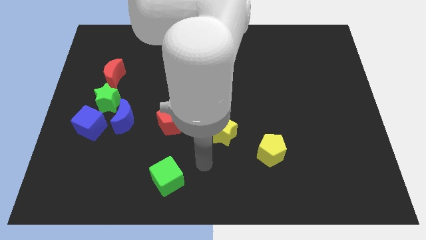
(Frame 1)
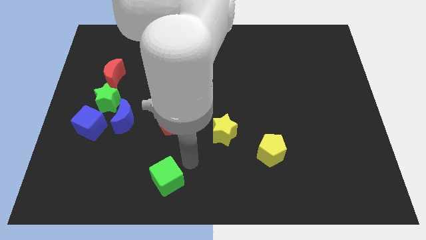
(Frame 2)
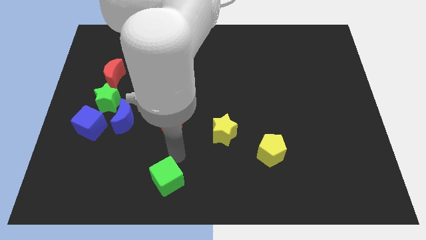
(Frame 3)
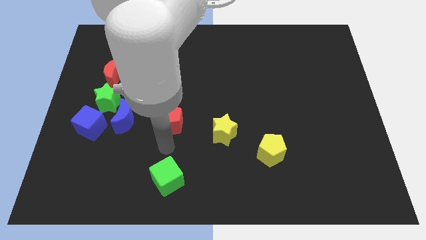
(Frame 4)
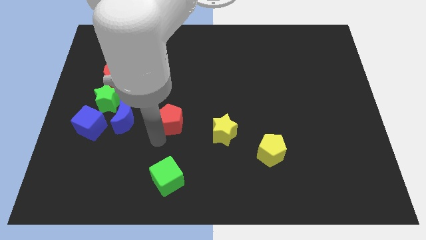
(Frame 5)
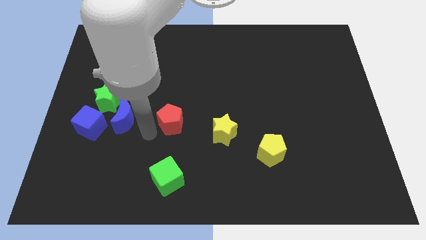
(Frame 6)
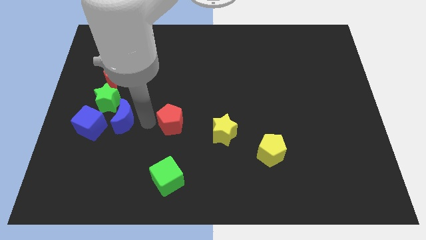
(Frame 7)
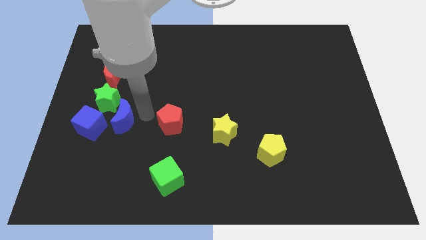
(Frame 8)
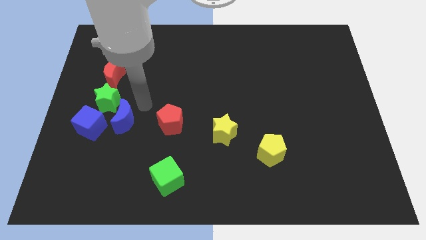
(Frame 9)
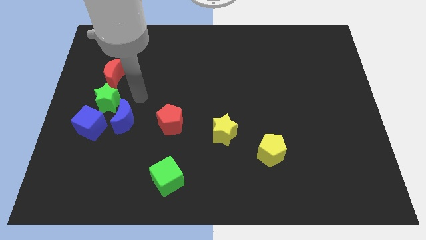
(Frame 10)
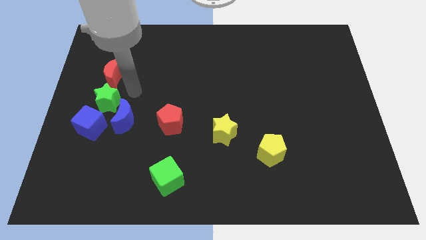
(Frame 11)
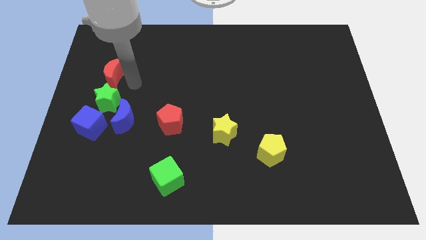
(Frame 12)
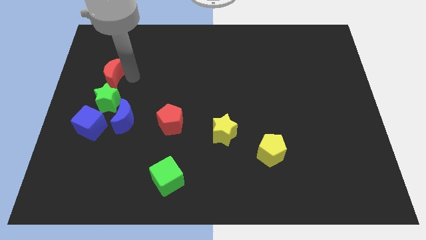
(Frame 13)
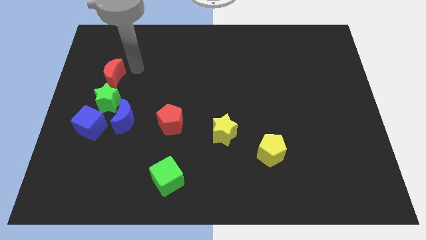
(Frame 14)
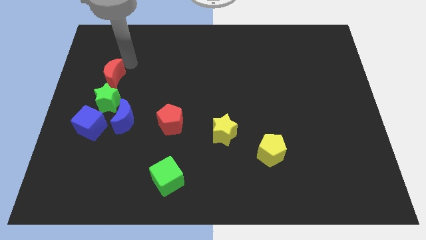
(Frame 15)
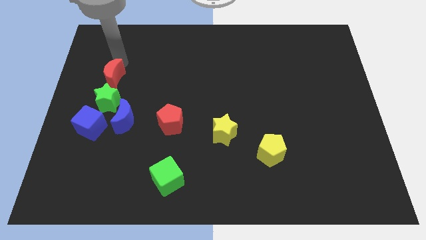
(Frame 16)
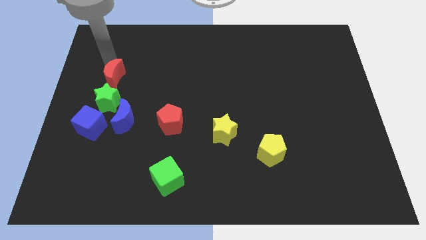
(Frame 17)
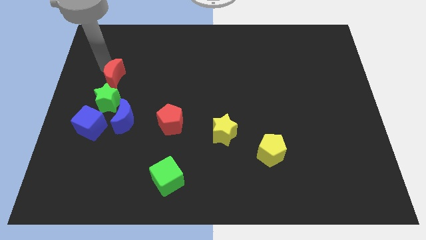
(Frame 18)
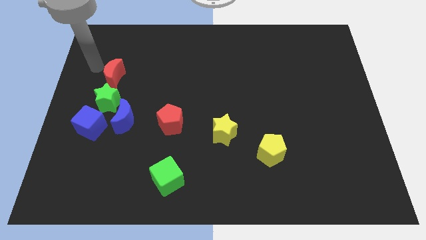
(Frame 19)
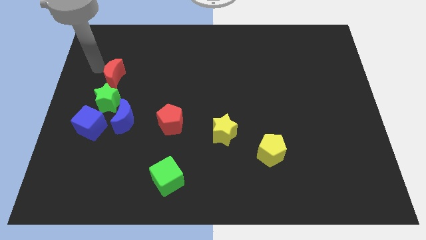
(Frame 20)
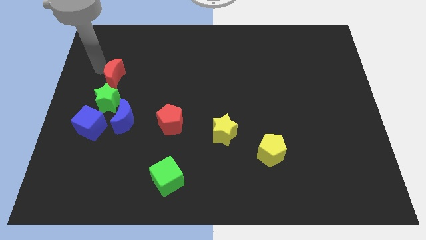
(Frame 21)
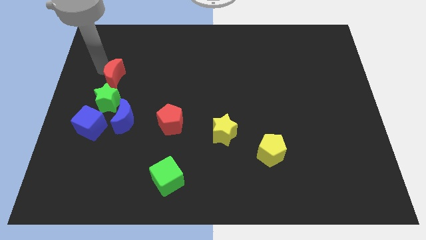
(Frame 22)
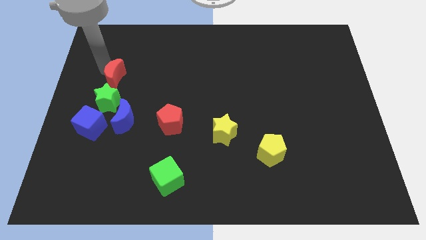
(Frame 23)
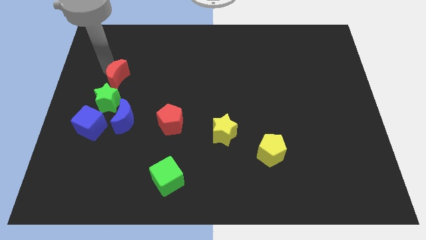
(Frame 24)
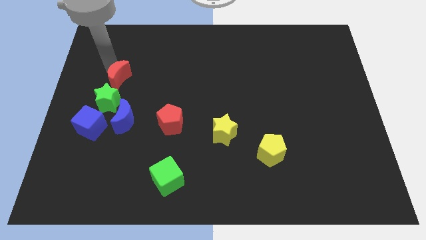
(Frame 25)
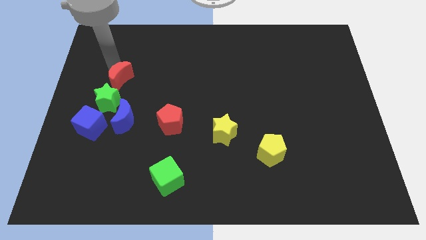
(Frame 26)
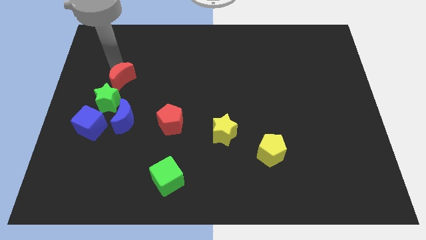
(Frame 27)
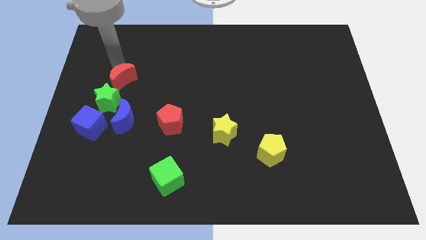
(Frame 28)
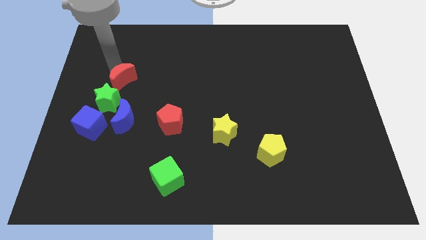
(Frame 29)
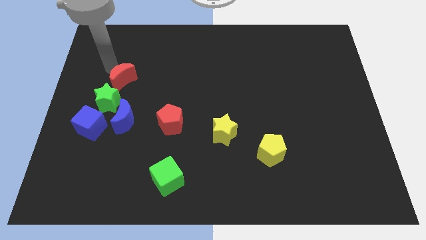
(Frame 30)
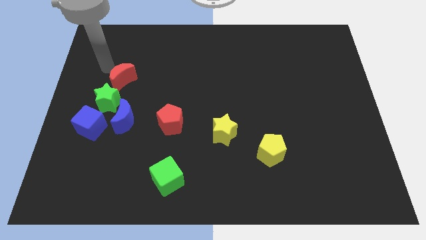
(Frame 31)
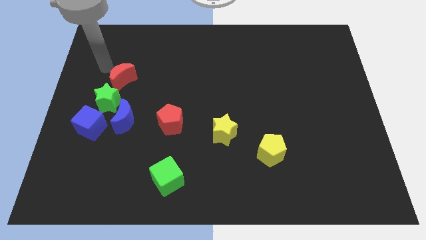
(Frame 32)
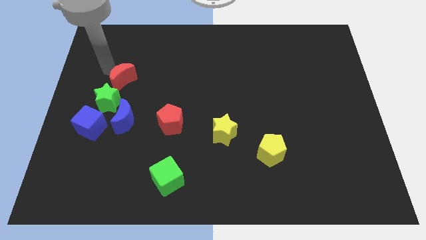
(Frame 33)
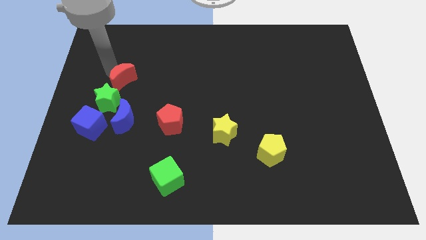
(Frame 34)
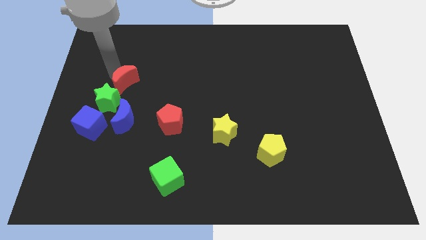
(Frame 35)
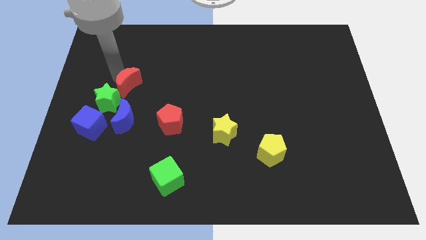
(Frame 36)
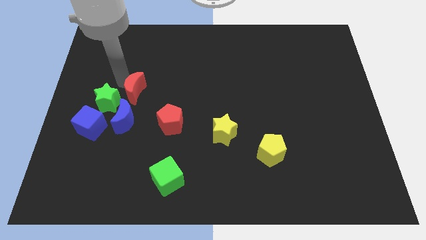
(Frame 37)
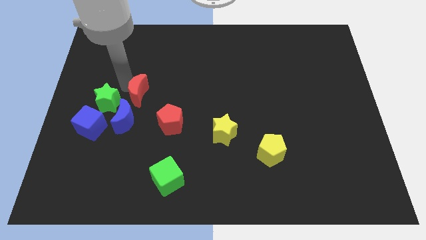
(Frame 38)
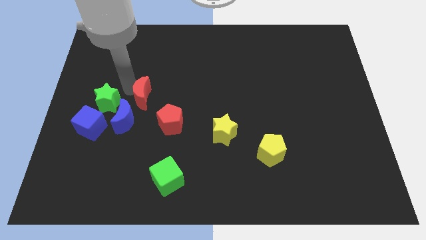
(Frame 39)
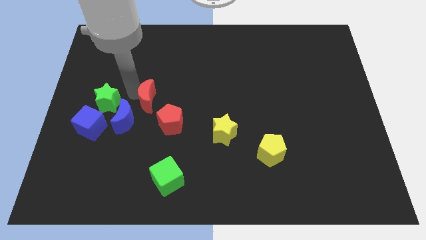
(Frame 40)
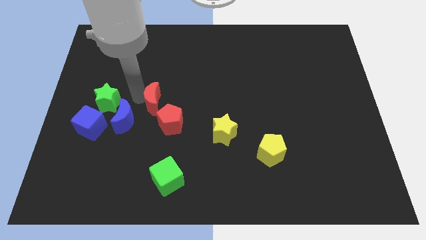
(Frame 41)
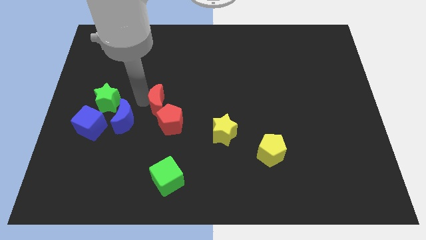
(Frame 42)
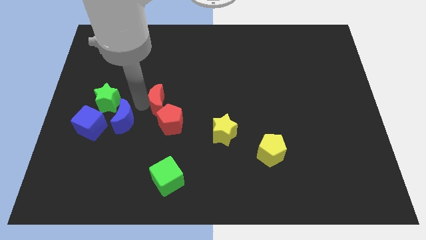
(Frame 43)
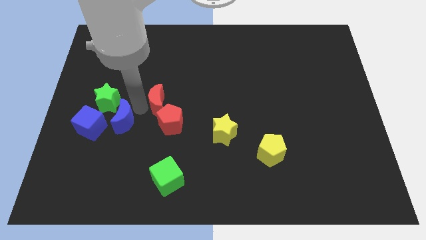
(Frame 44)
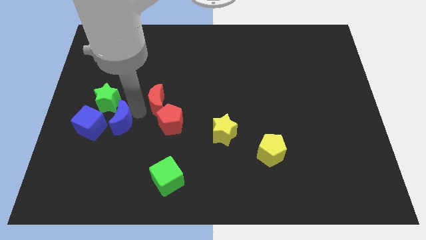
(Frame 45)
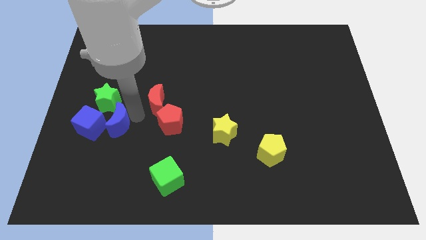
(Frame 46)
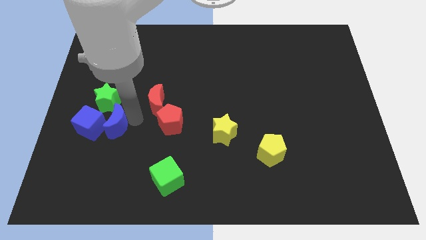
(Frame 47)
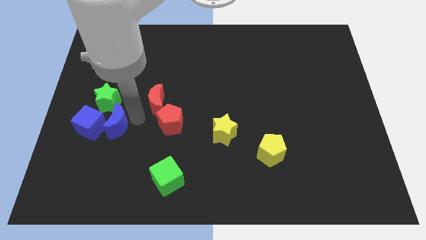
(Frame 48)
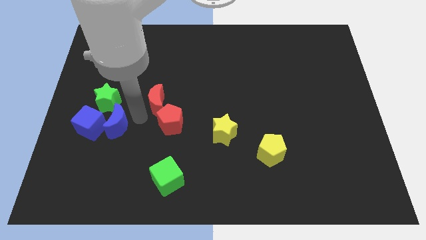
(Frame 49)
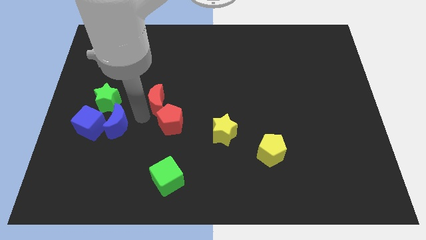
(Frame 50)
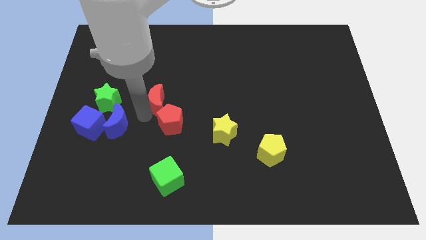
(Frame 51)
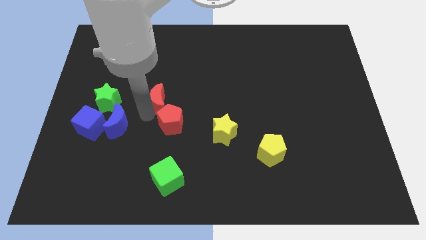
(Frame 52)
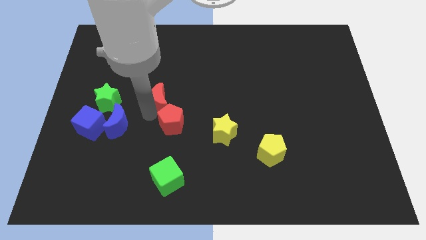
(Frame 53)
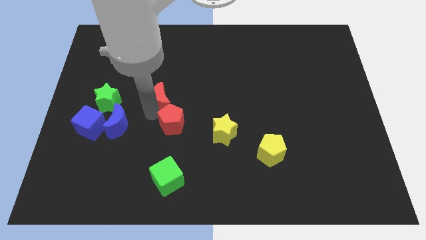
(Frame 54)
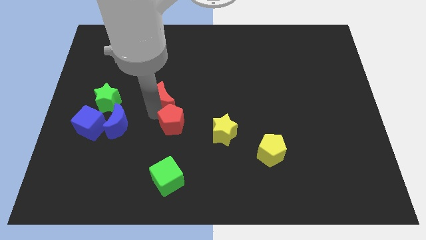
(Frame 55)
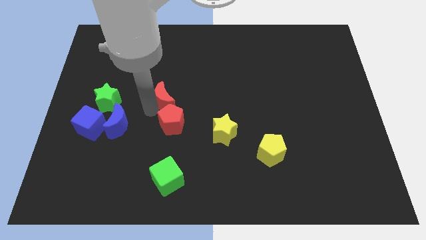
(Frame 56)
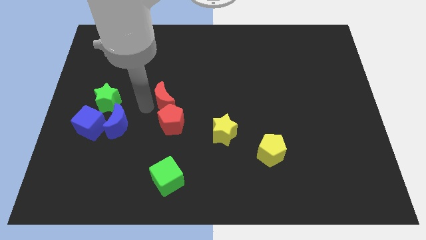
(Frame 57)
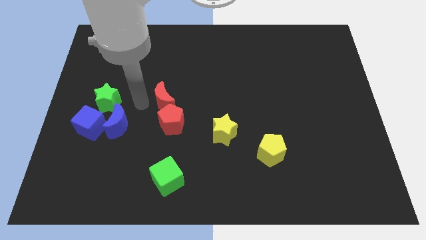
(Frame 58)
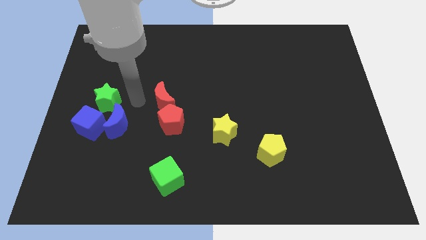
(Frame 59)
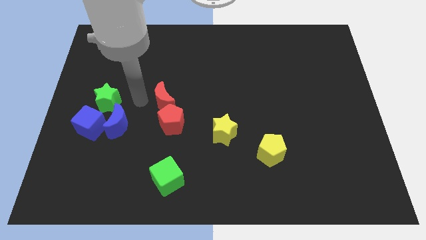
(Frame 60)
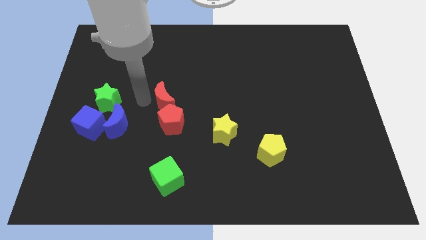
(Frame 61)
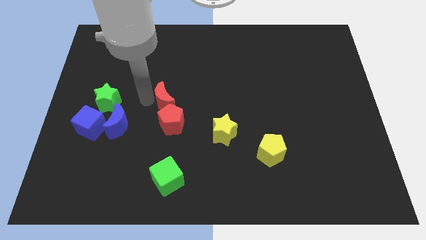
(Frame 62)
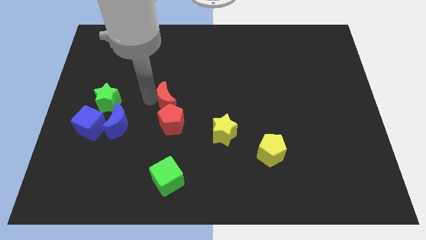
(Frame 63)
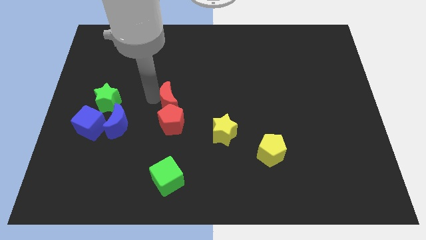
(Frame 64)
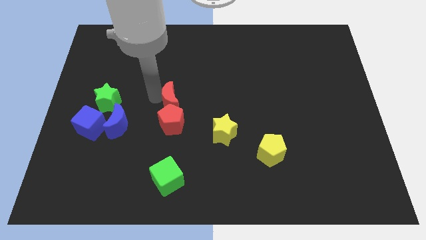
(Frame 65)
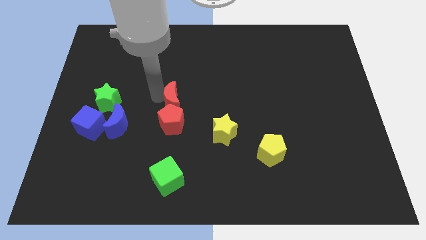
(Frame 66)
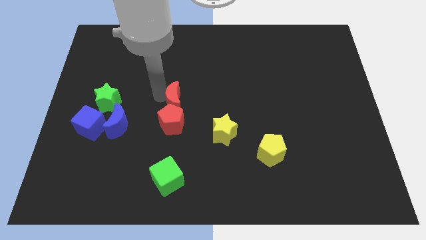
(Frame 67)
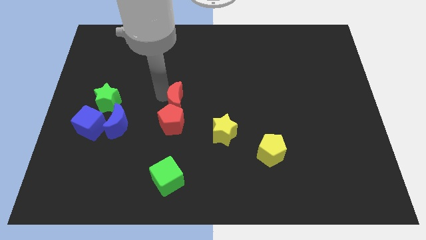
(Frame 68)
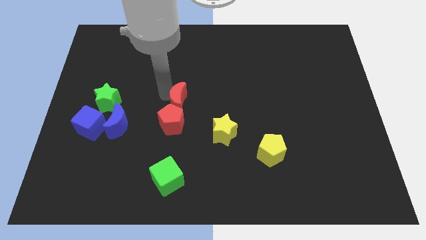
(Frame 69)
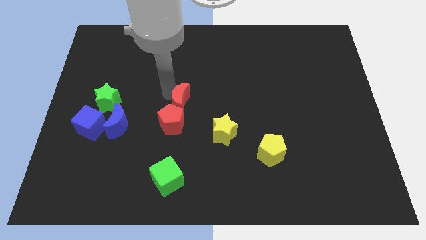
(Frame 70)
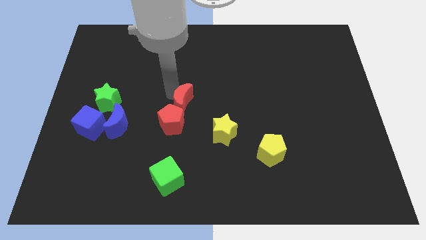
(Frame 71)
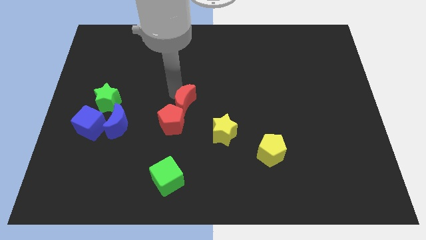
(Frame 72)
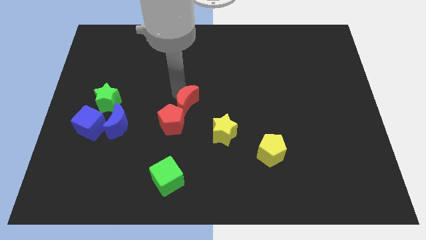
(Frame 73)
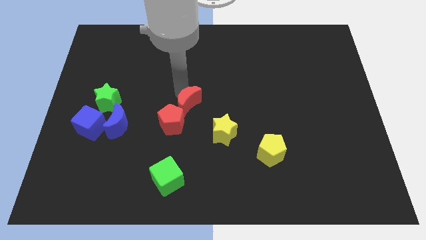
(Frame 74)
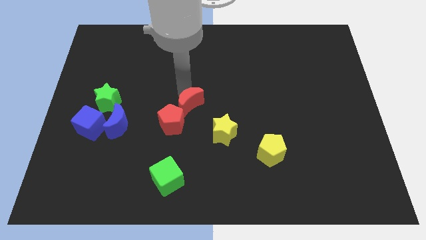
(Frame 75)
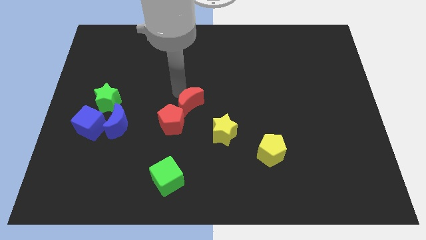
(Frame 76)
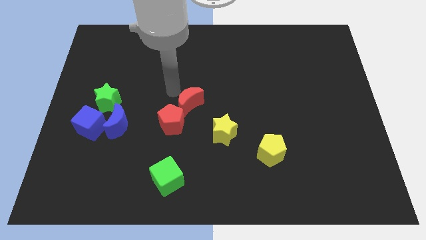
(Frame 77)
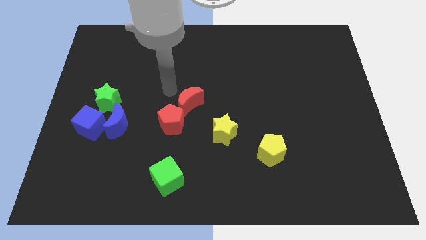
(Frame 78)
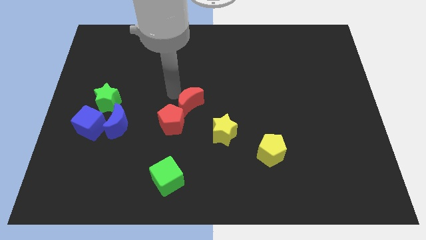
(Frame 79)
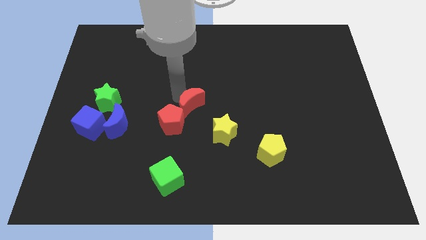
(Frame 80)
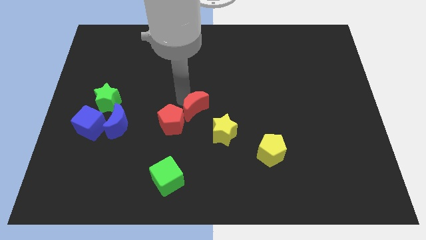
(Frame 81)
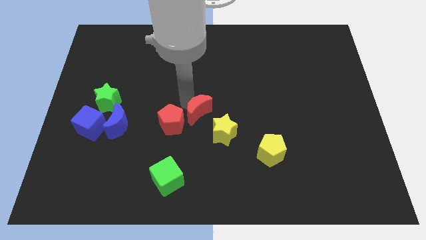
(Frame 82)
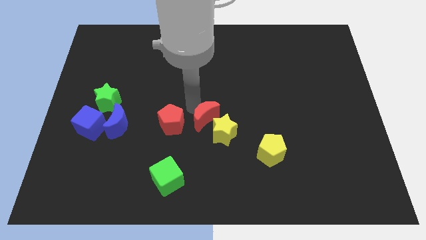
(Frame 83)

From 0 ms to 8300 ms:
push the red moon towards the yellow star
